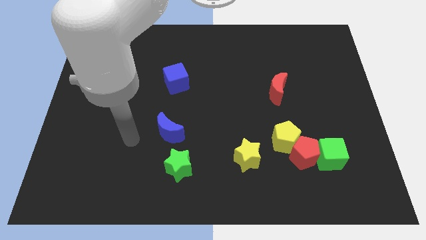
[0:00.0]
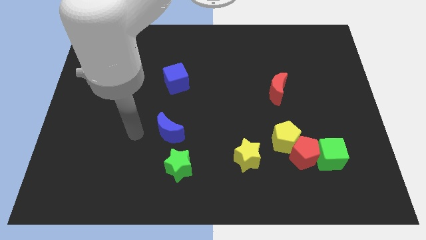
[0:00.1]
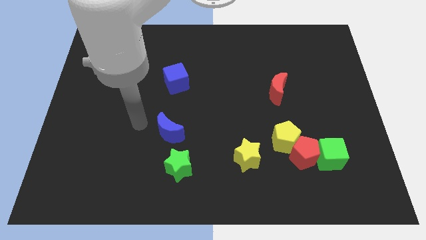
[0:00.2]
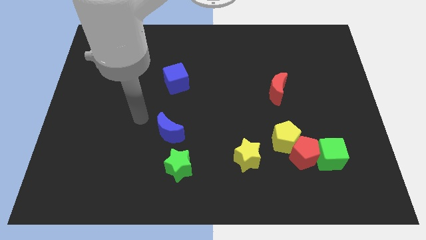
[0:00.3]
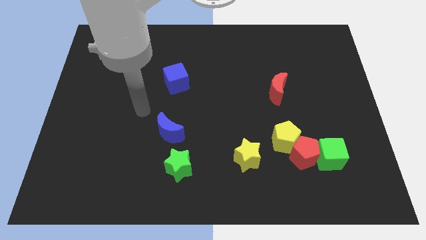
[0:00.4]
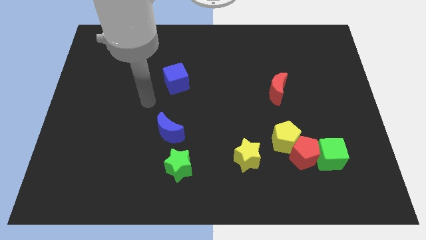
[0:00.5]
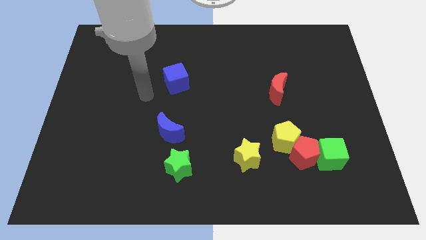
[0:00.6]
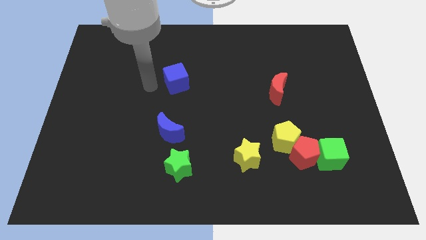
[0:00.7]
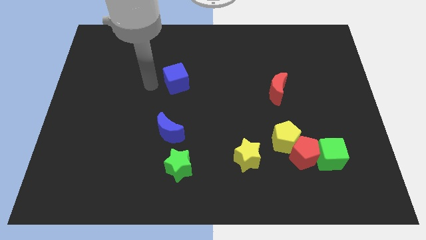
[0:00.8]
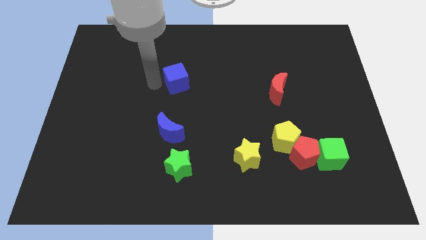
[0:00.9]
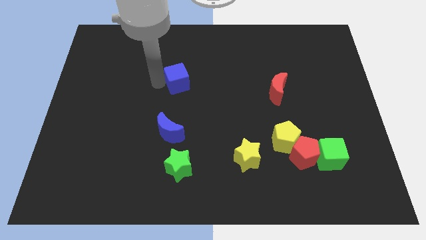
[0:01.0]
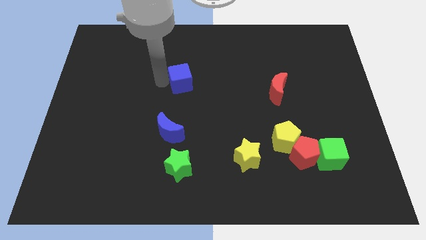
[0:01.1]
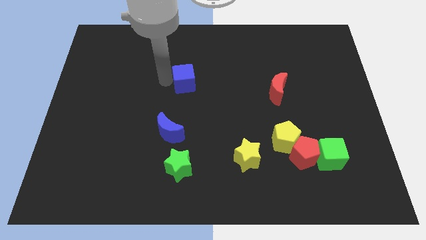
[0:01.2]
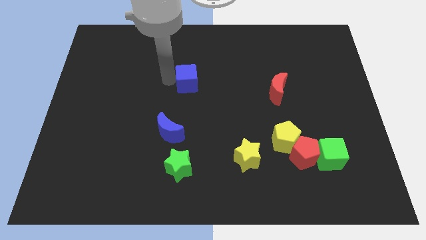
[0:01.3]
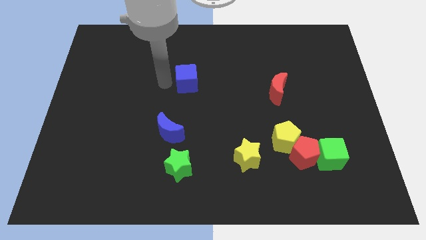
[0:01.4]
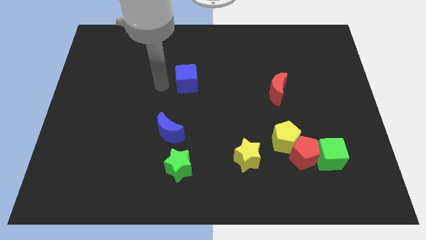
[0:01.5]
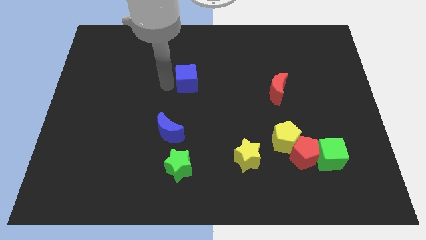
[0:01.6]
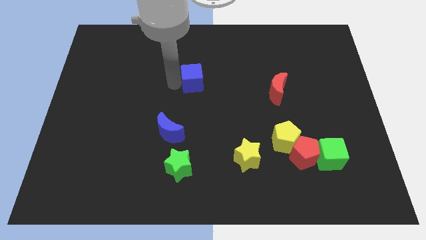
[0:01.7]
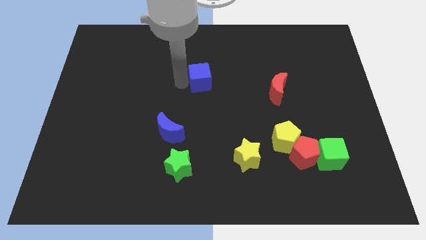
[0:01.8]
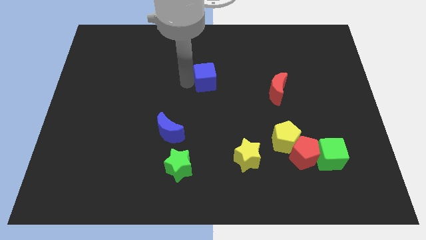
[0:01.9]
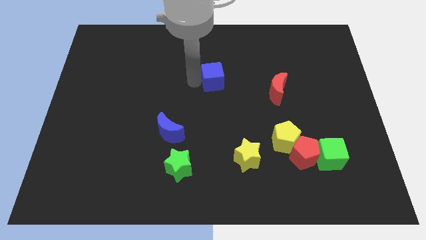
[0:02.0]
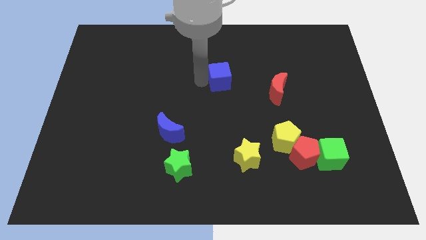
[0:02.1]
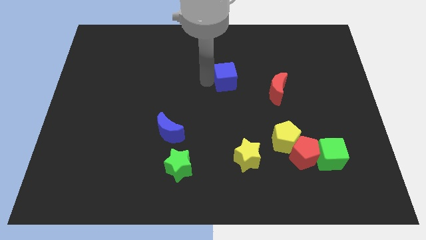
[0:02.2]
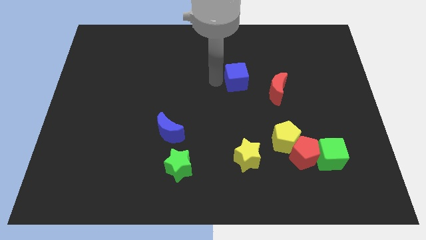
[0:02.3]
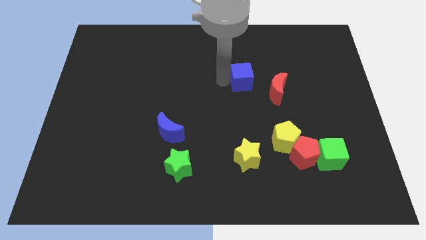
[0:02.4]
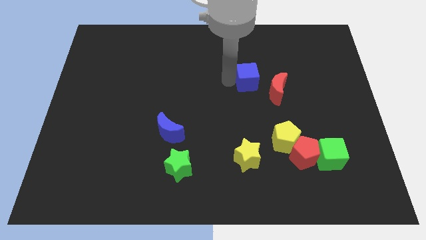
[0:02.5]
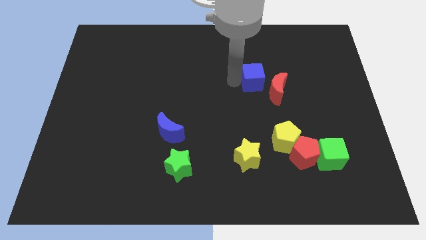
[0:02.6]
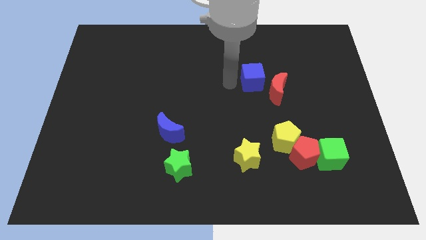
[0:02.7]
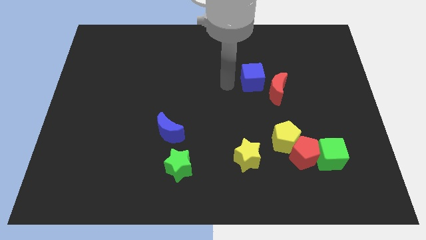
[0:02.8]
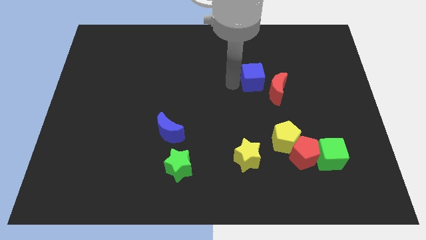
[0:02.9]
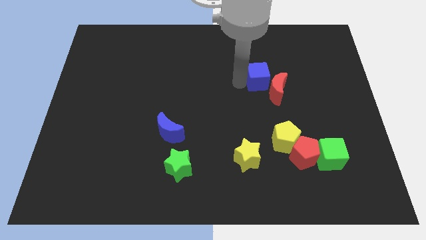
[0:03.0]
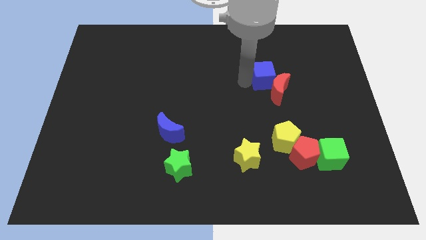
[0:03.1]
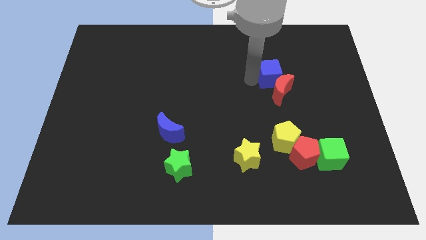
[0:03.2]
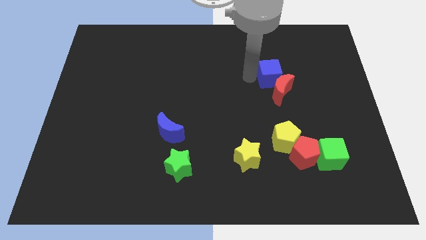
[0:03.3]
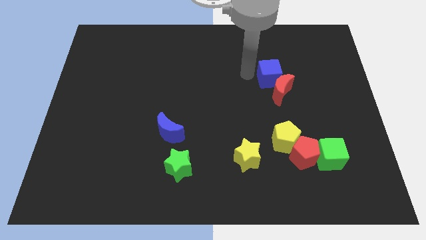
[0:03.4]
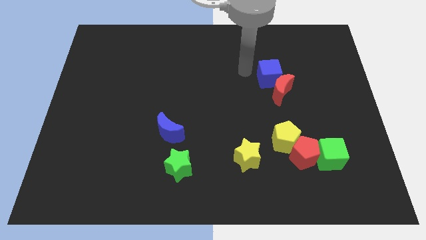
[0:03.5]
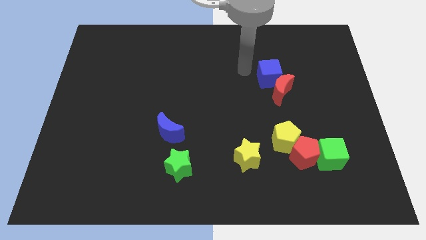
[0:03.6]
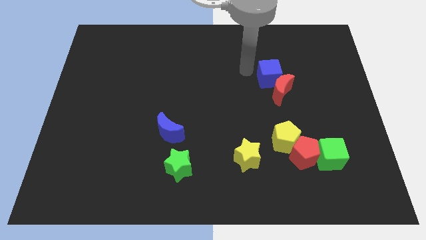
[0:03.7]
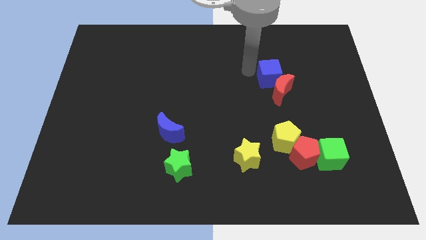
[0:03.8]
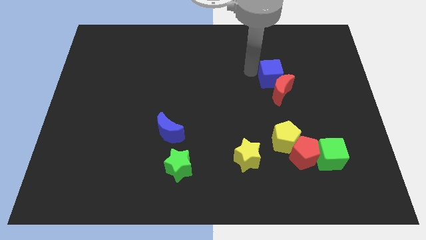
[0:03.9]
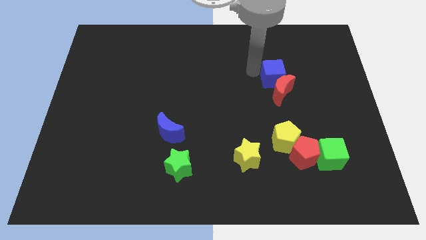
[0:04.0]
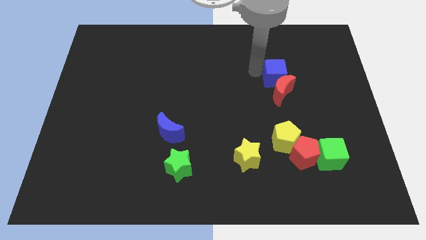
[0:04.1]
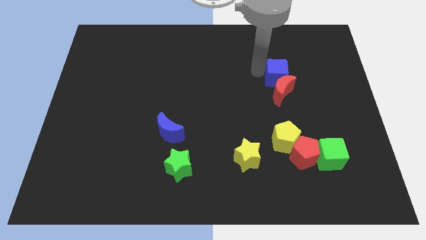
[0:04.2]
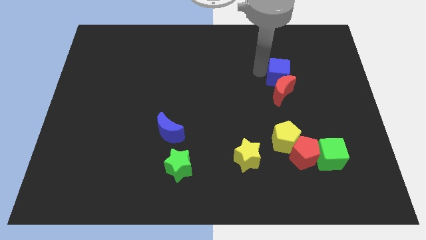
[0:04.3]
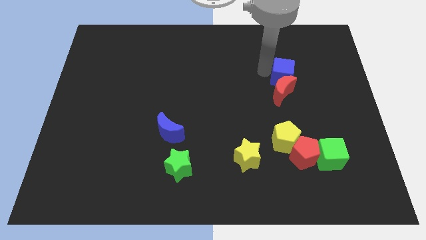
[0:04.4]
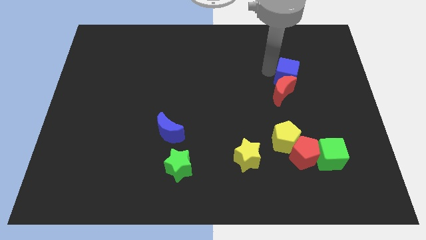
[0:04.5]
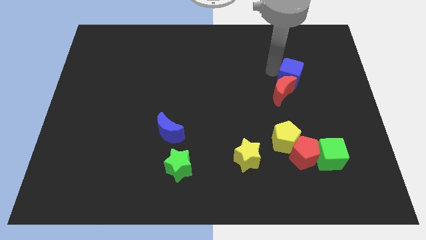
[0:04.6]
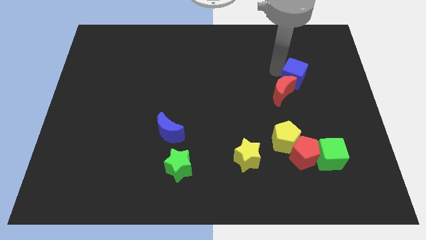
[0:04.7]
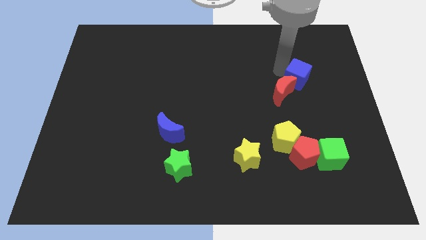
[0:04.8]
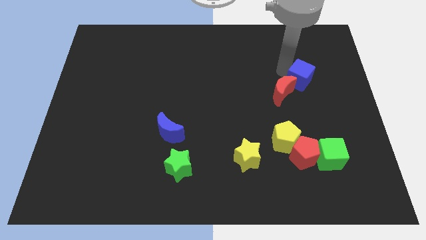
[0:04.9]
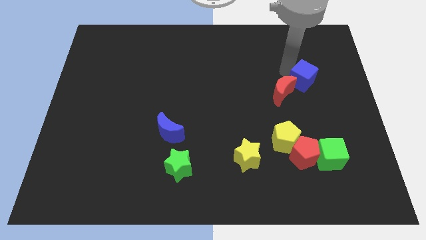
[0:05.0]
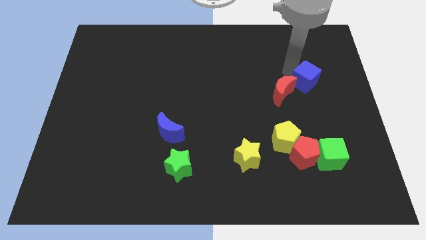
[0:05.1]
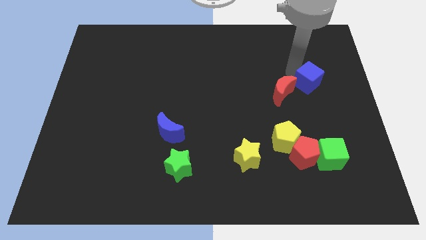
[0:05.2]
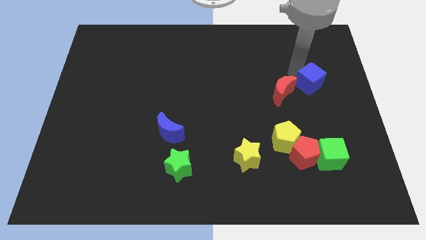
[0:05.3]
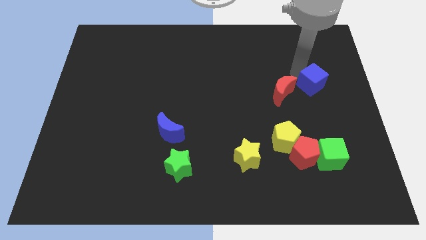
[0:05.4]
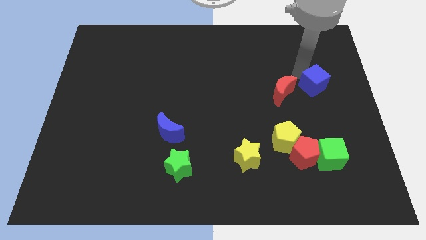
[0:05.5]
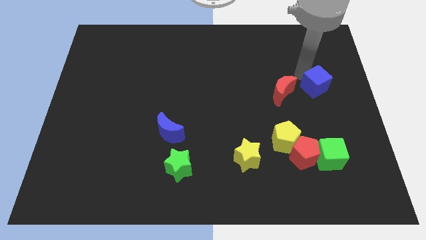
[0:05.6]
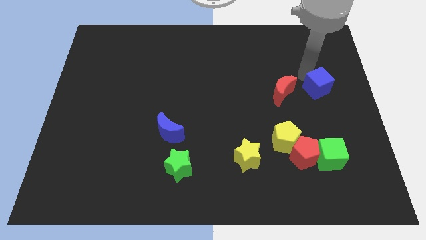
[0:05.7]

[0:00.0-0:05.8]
push the blue cube to the right side of the board
